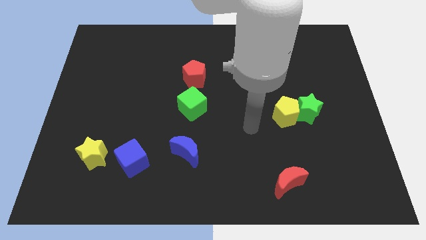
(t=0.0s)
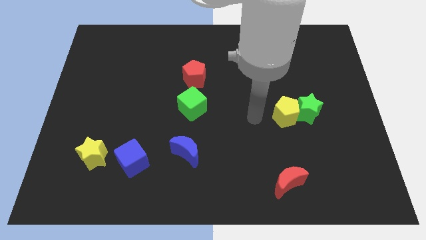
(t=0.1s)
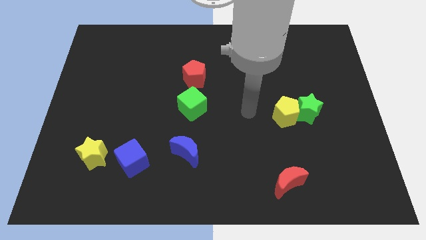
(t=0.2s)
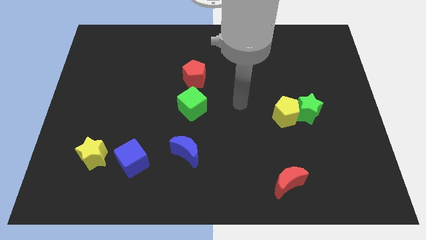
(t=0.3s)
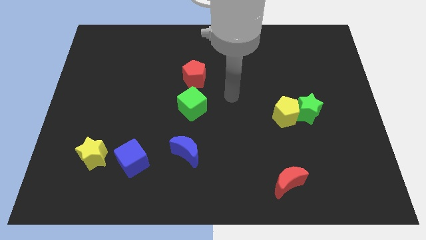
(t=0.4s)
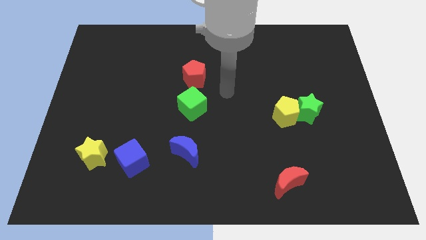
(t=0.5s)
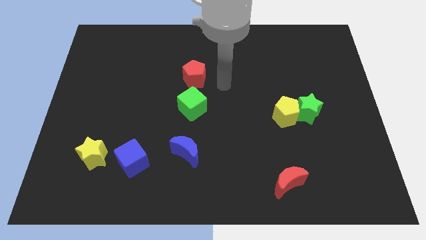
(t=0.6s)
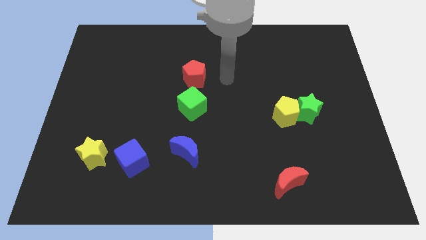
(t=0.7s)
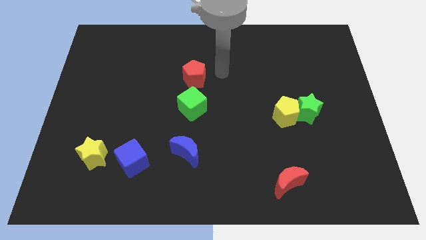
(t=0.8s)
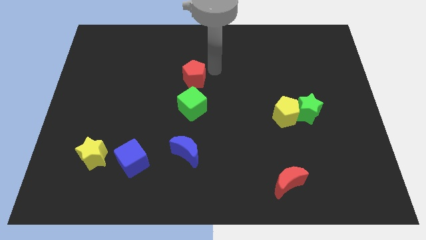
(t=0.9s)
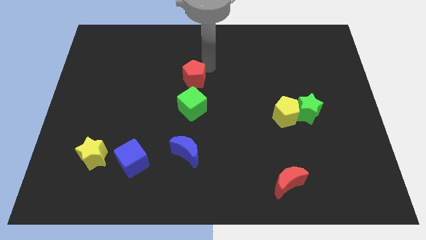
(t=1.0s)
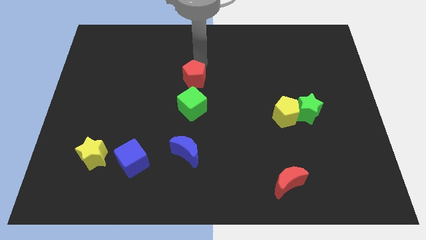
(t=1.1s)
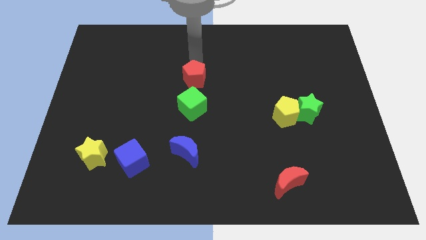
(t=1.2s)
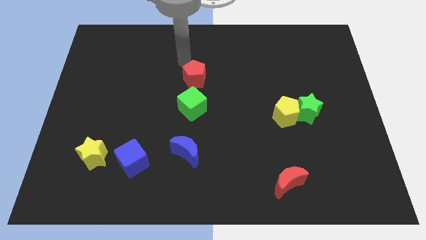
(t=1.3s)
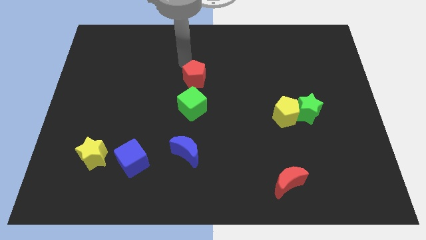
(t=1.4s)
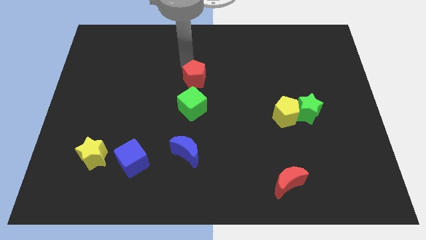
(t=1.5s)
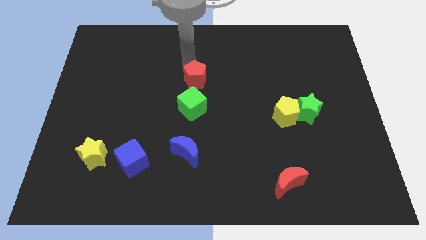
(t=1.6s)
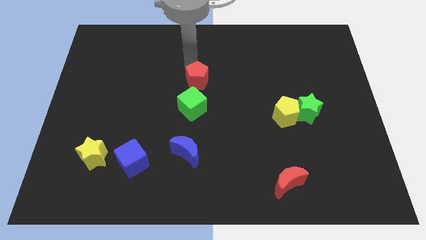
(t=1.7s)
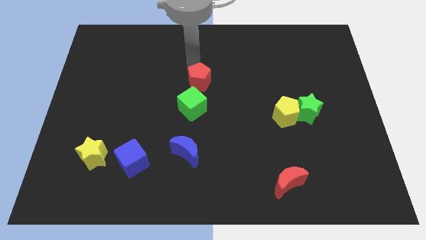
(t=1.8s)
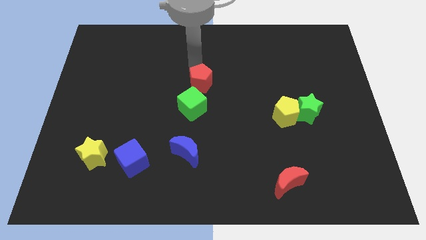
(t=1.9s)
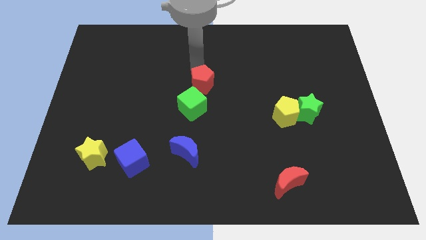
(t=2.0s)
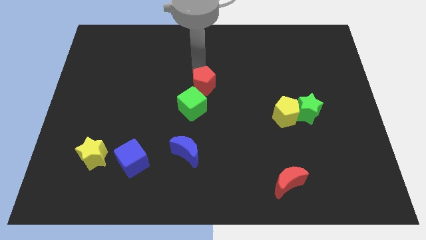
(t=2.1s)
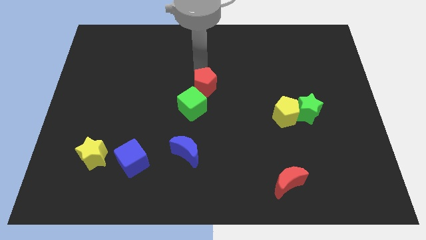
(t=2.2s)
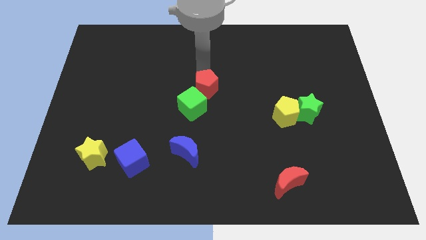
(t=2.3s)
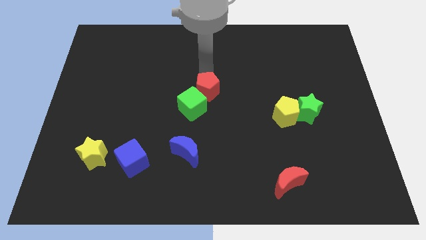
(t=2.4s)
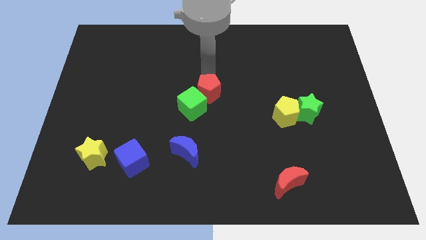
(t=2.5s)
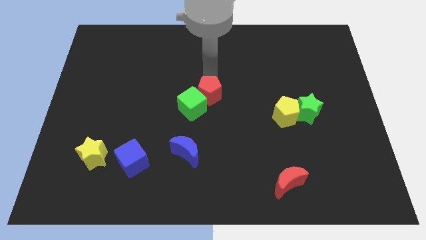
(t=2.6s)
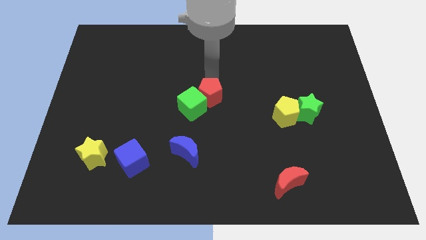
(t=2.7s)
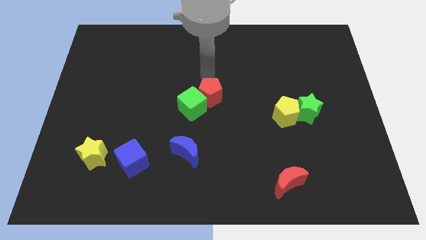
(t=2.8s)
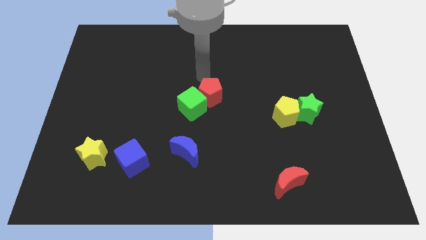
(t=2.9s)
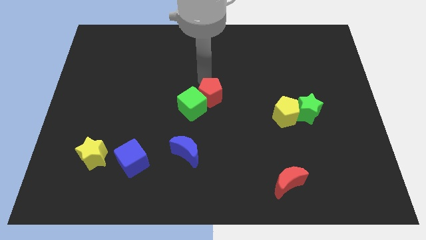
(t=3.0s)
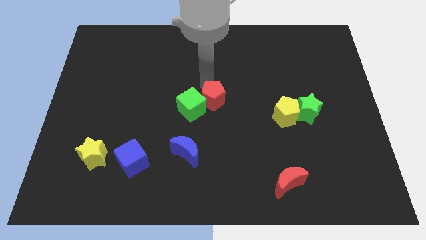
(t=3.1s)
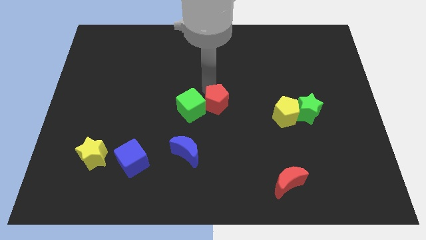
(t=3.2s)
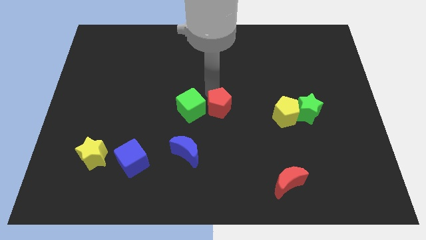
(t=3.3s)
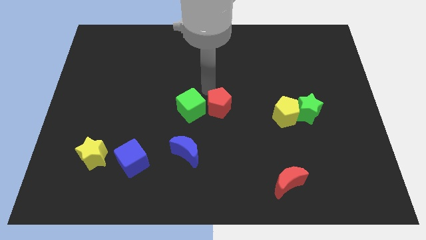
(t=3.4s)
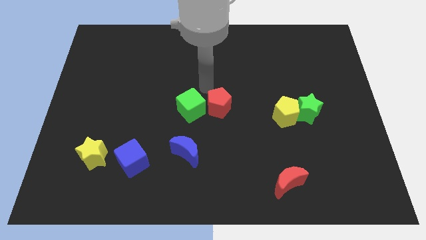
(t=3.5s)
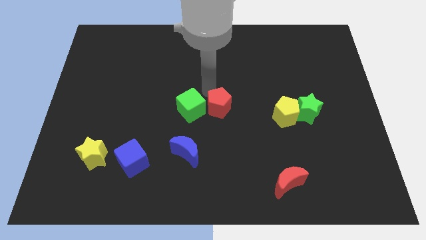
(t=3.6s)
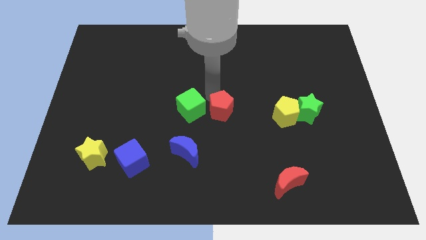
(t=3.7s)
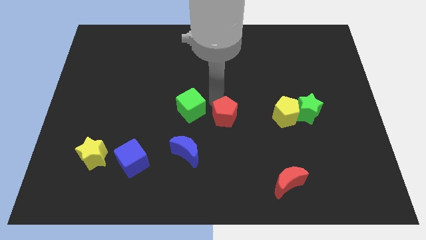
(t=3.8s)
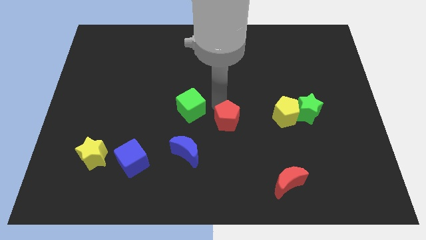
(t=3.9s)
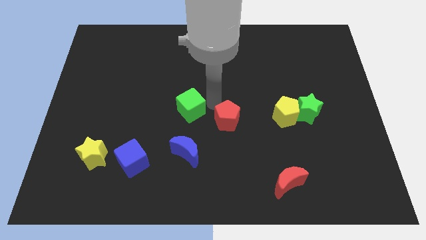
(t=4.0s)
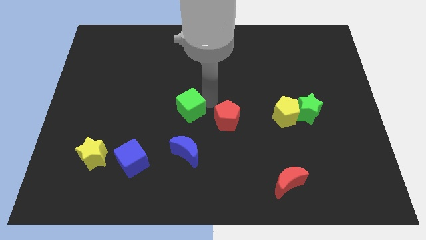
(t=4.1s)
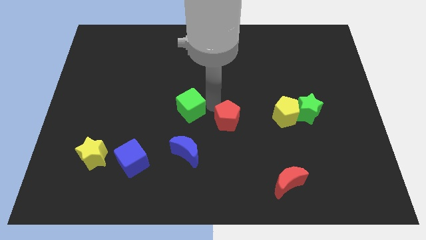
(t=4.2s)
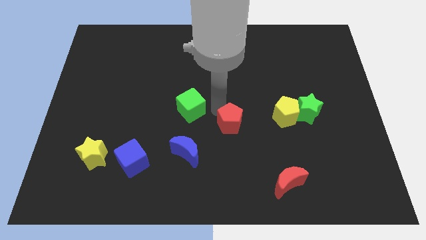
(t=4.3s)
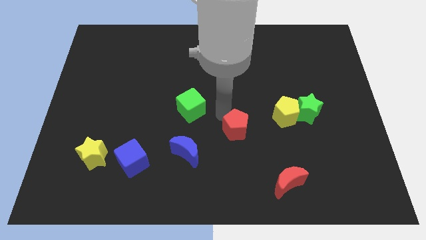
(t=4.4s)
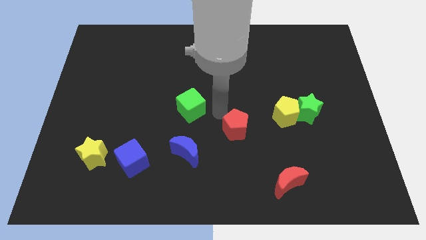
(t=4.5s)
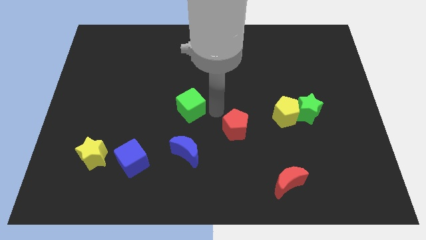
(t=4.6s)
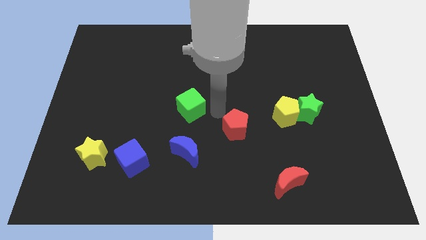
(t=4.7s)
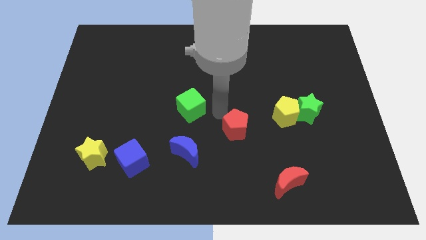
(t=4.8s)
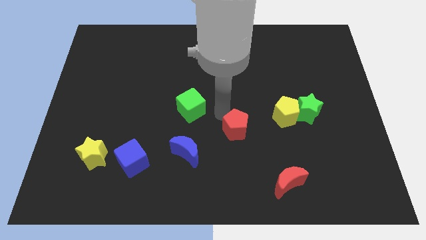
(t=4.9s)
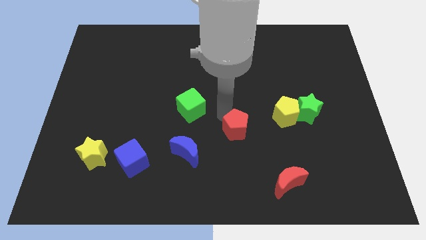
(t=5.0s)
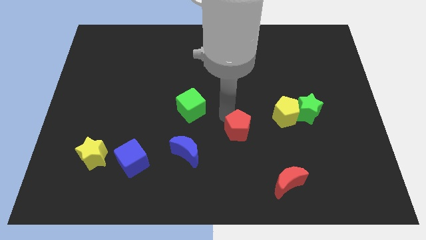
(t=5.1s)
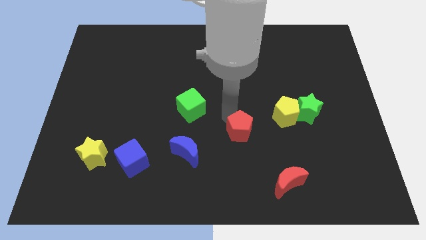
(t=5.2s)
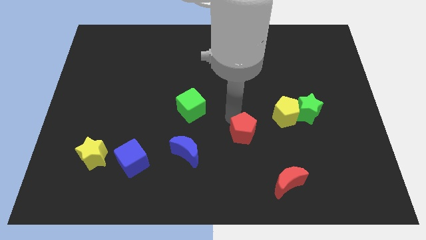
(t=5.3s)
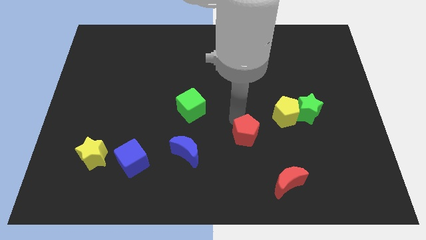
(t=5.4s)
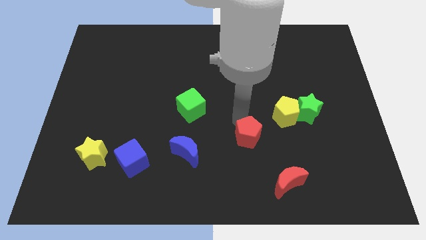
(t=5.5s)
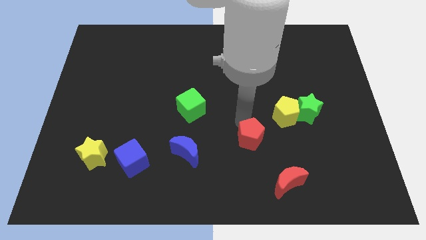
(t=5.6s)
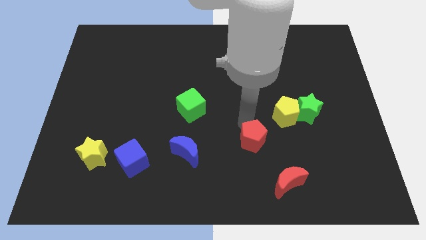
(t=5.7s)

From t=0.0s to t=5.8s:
move the red pentagon to the top left side of the red moon

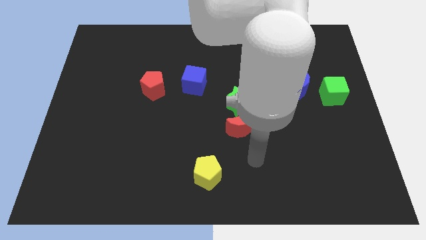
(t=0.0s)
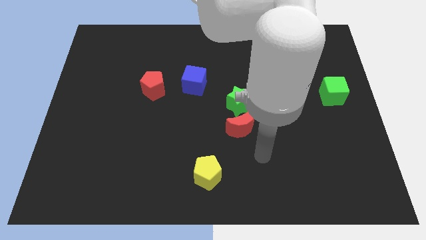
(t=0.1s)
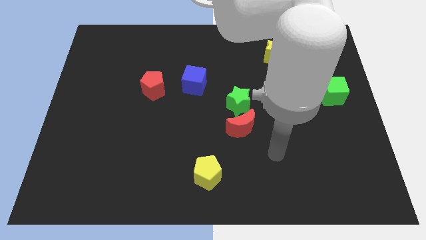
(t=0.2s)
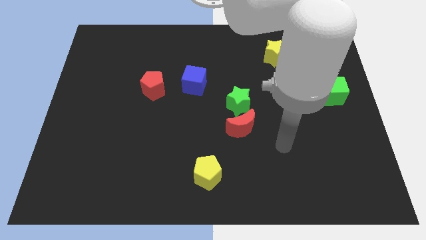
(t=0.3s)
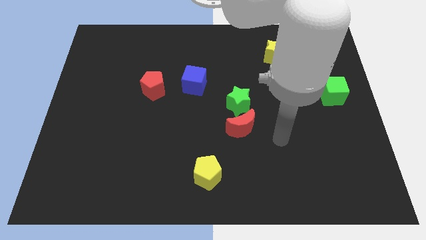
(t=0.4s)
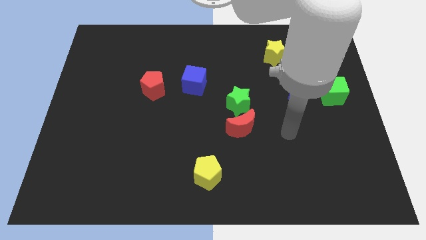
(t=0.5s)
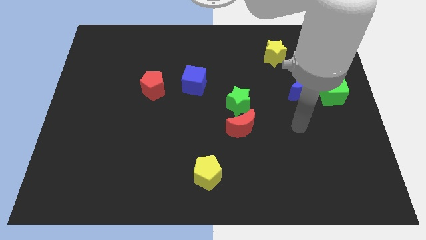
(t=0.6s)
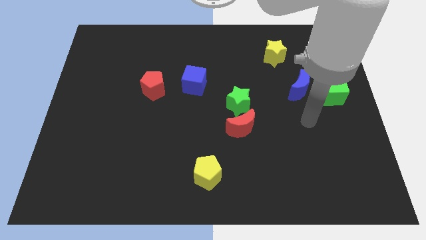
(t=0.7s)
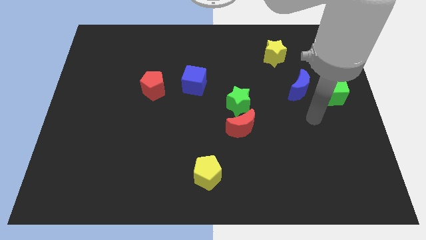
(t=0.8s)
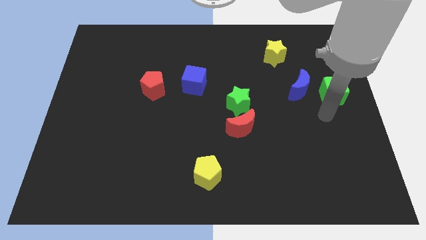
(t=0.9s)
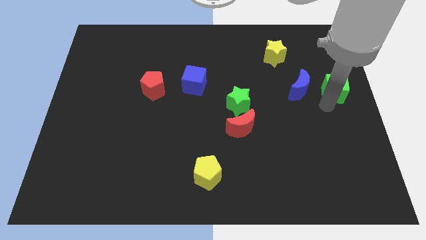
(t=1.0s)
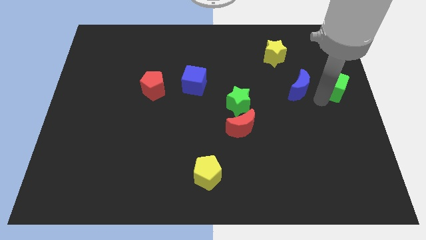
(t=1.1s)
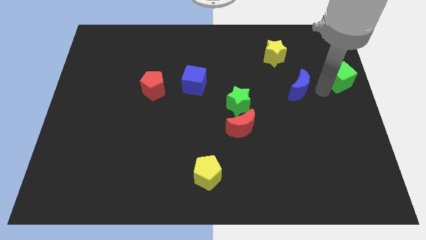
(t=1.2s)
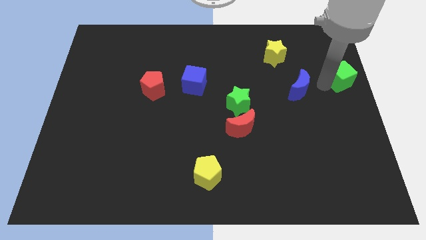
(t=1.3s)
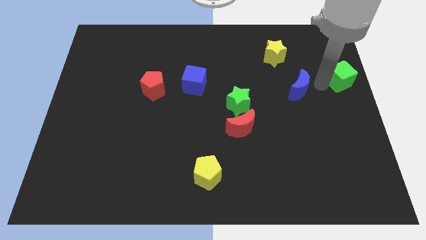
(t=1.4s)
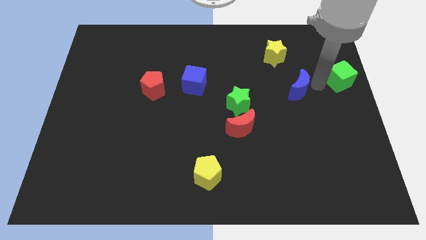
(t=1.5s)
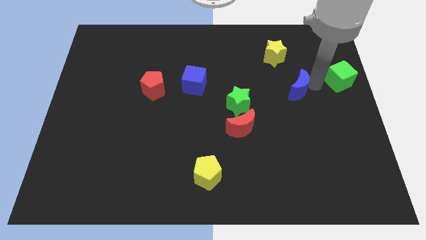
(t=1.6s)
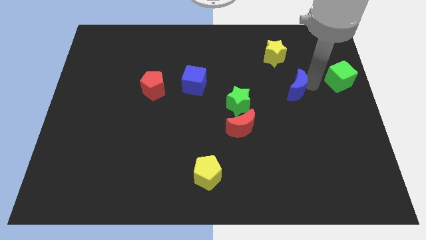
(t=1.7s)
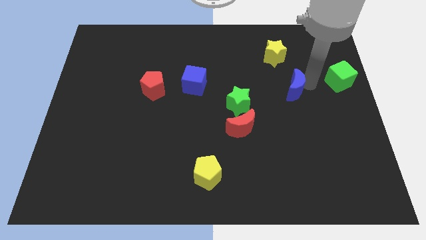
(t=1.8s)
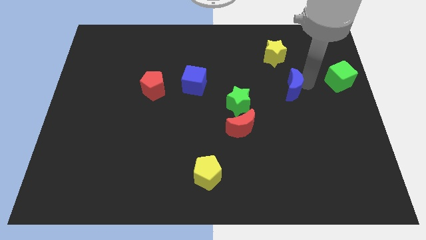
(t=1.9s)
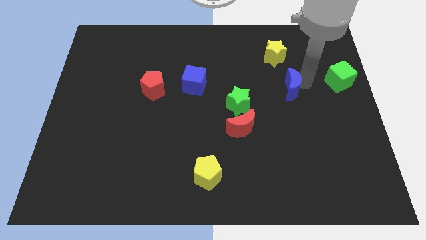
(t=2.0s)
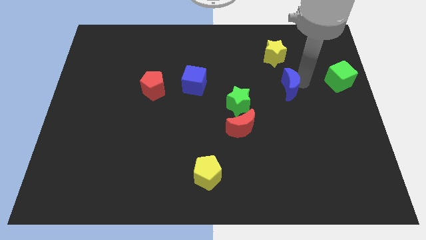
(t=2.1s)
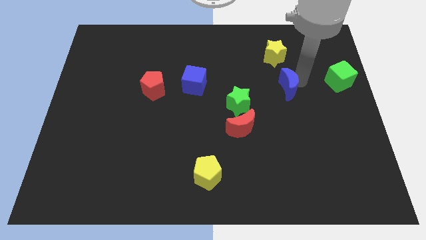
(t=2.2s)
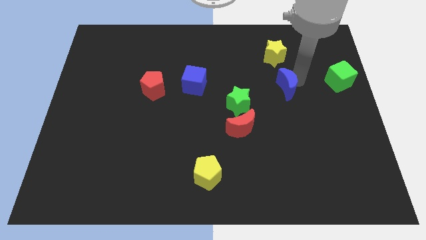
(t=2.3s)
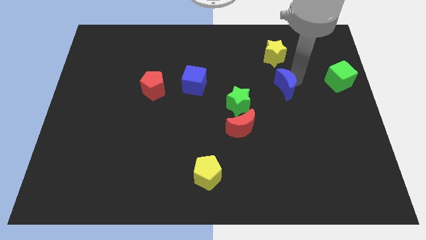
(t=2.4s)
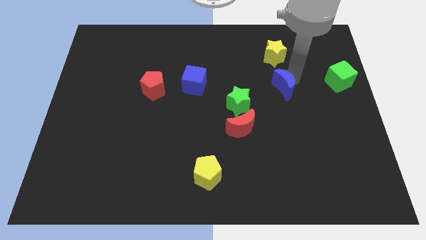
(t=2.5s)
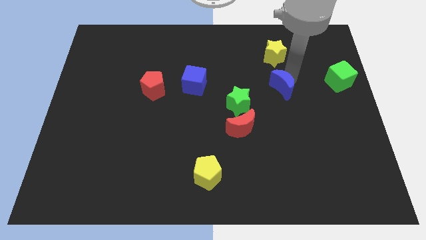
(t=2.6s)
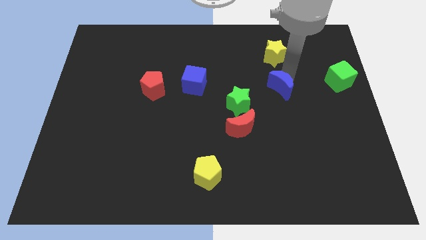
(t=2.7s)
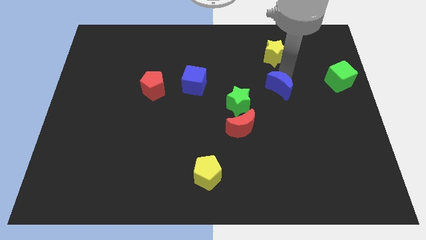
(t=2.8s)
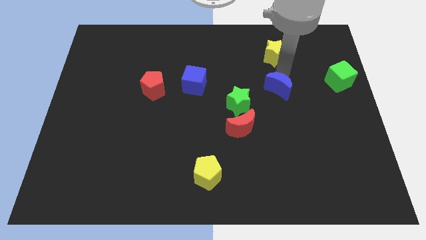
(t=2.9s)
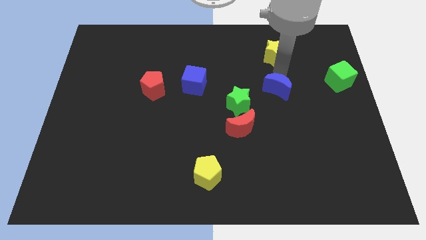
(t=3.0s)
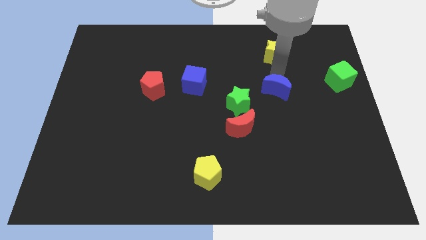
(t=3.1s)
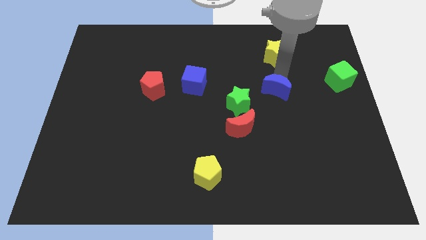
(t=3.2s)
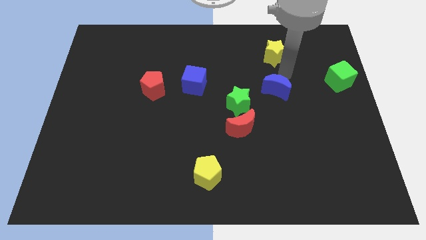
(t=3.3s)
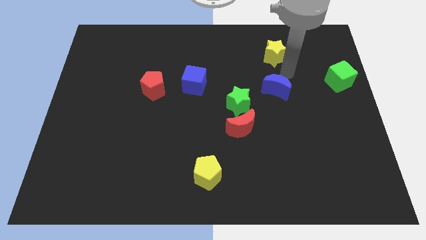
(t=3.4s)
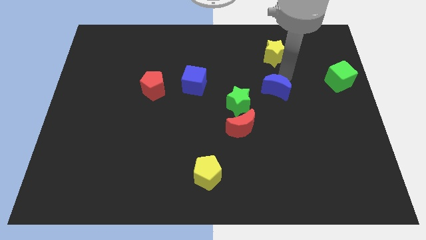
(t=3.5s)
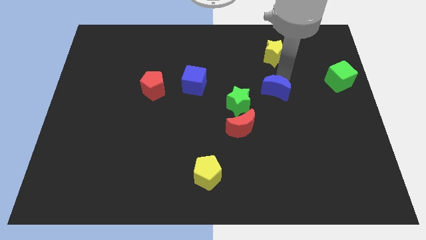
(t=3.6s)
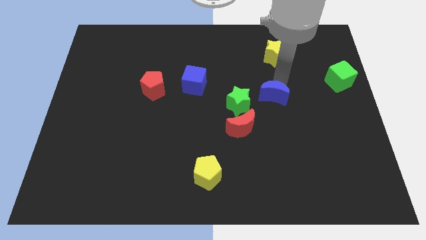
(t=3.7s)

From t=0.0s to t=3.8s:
push the blue moon diagonally up and to the right of the red moon
